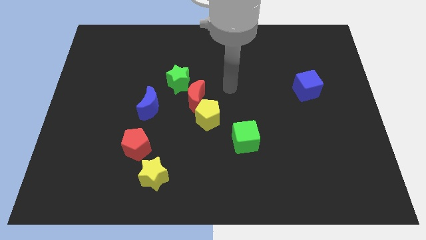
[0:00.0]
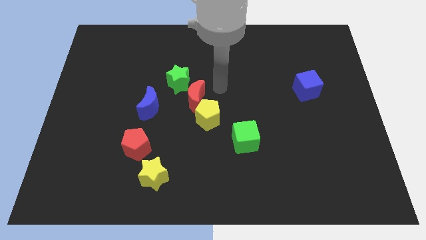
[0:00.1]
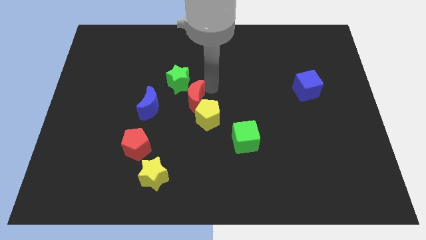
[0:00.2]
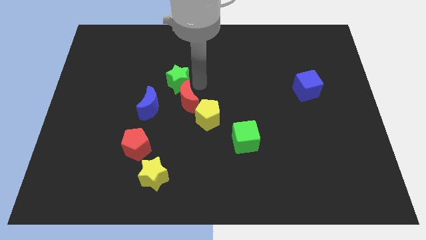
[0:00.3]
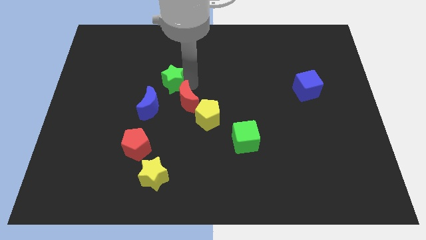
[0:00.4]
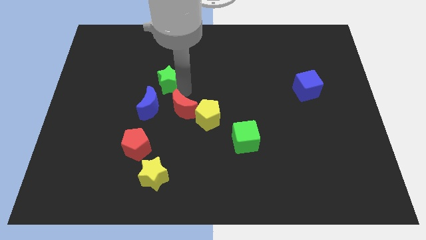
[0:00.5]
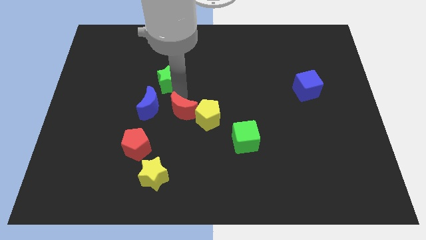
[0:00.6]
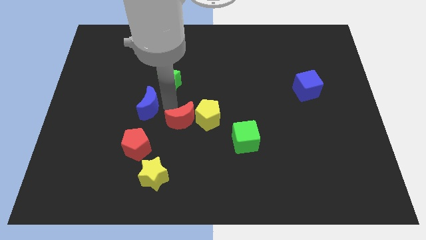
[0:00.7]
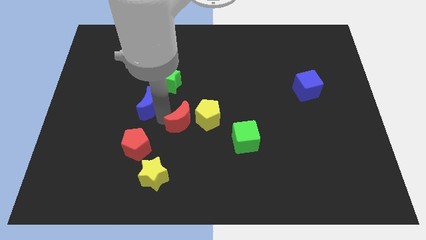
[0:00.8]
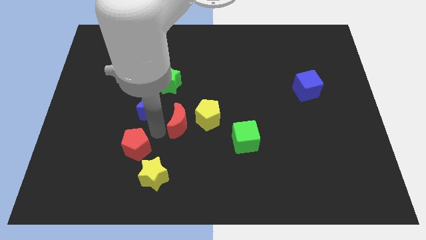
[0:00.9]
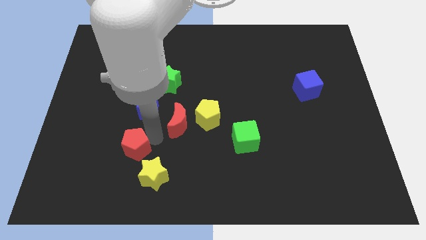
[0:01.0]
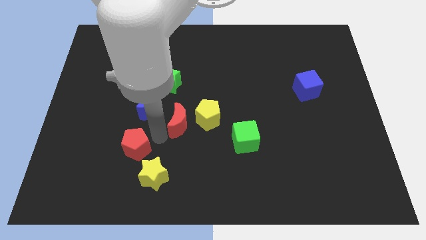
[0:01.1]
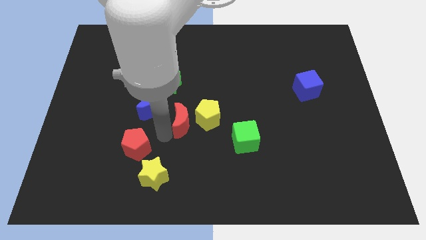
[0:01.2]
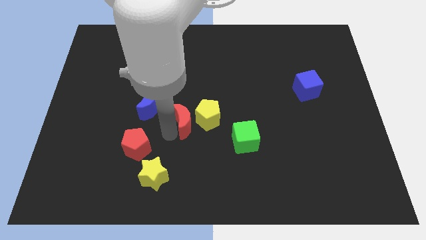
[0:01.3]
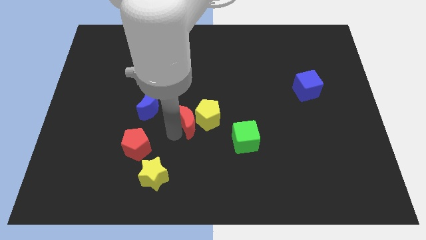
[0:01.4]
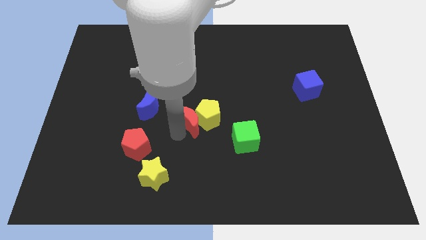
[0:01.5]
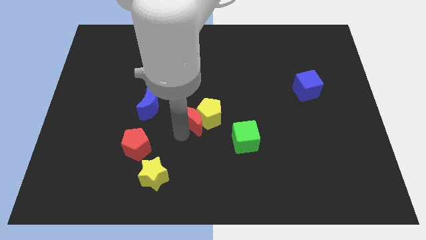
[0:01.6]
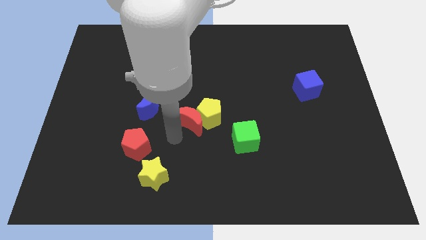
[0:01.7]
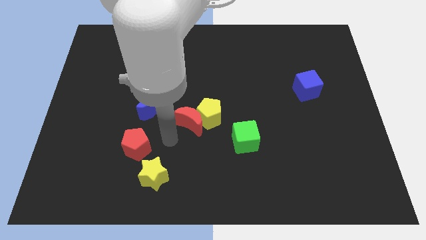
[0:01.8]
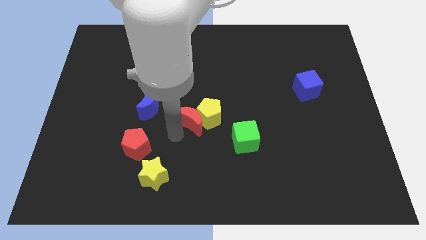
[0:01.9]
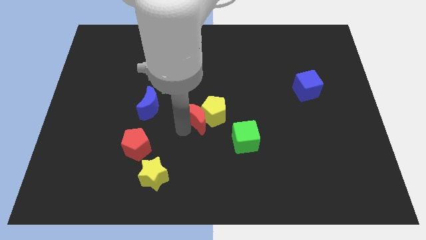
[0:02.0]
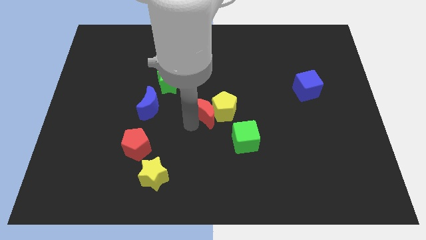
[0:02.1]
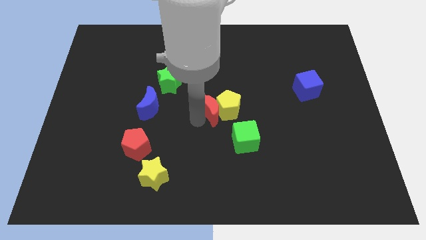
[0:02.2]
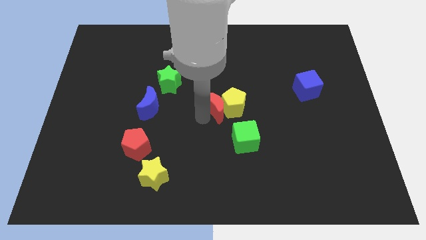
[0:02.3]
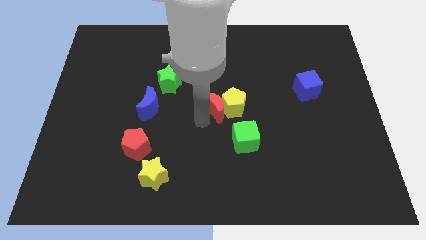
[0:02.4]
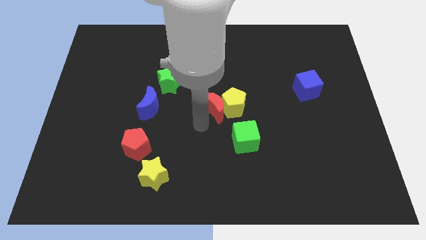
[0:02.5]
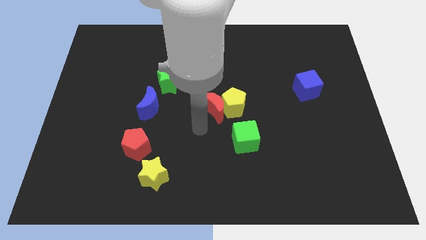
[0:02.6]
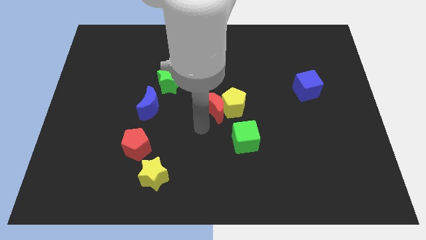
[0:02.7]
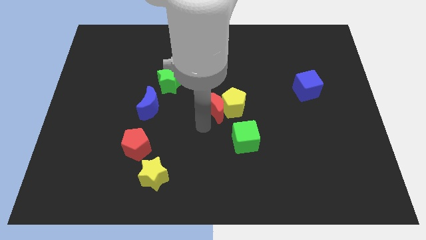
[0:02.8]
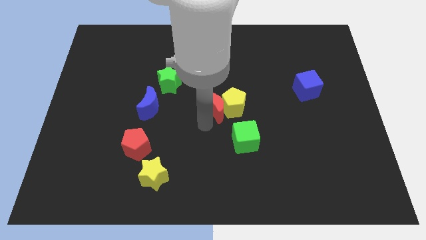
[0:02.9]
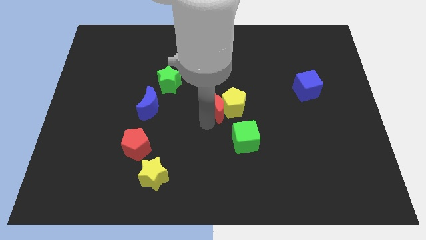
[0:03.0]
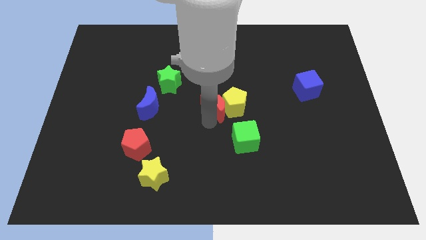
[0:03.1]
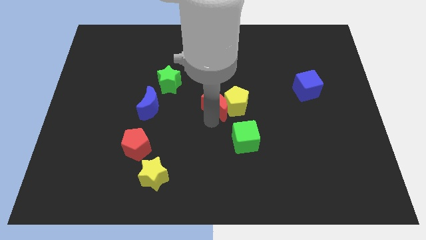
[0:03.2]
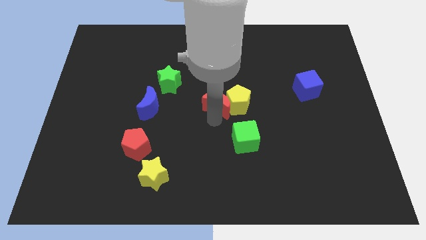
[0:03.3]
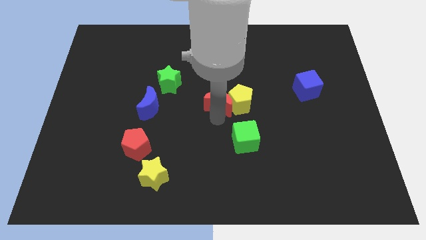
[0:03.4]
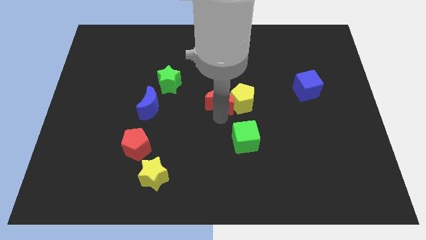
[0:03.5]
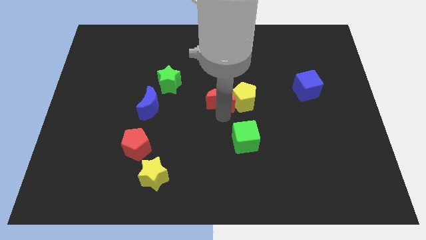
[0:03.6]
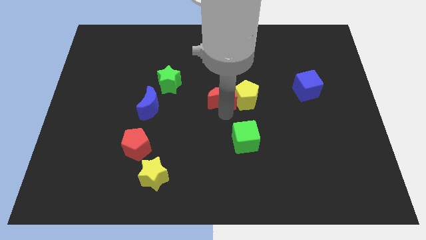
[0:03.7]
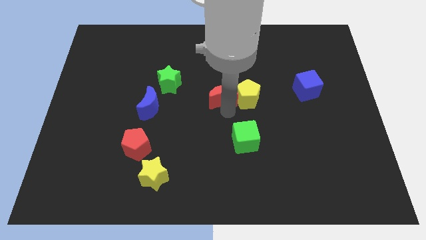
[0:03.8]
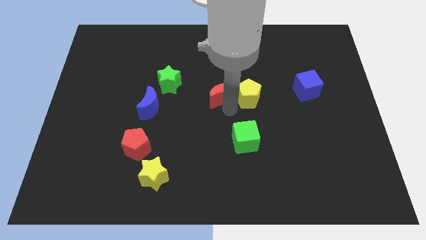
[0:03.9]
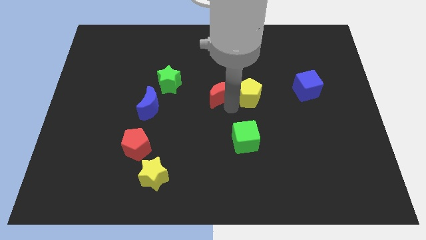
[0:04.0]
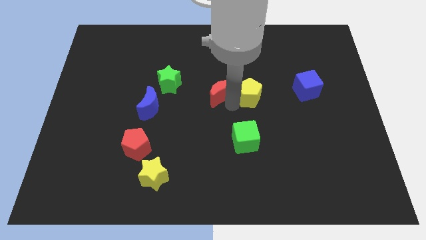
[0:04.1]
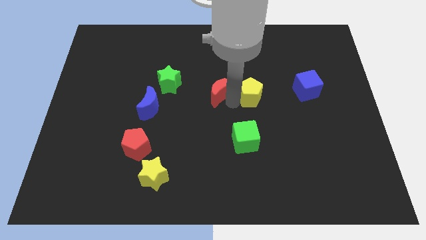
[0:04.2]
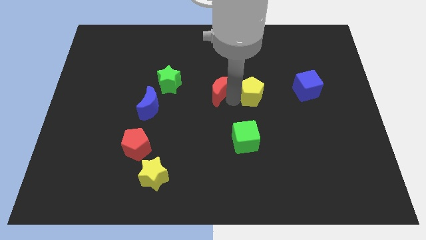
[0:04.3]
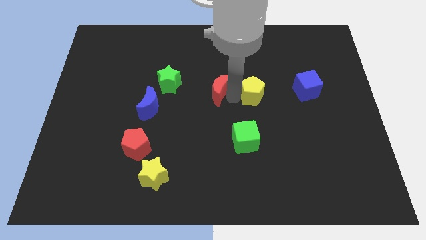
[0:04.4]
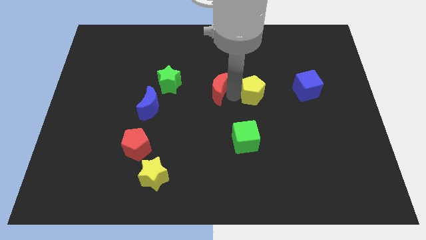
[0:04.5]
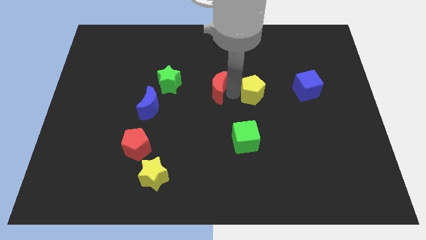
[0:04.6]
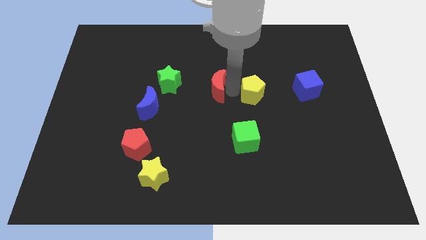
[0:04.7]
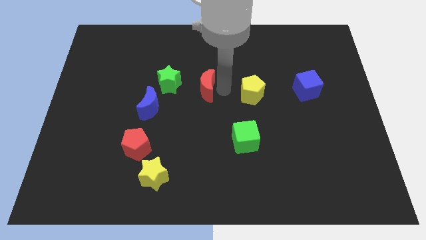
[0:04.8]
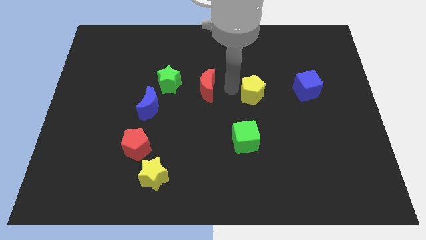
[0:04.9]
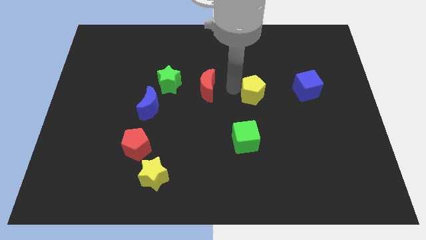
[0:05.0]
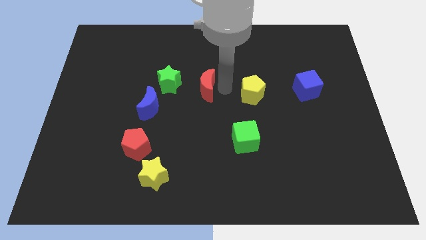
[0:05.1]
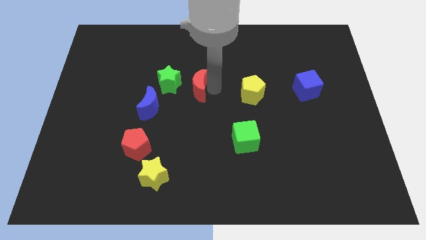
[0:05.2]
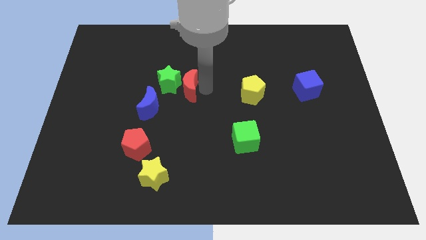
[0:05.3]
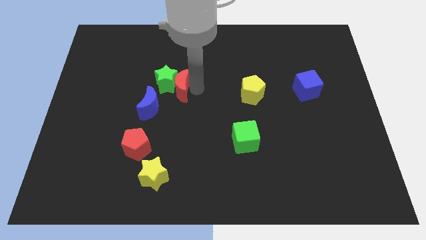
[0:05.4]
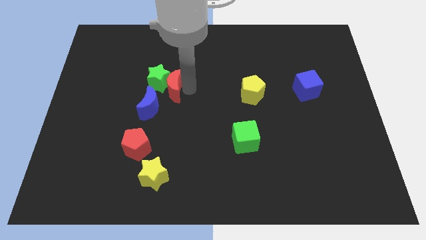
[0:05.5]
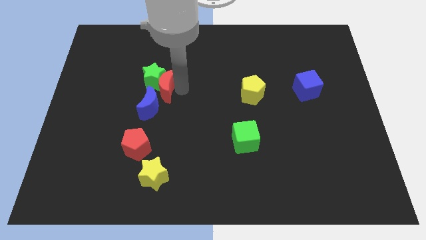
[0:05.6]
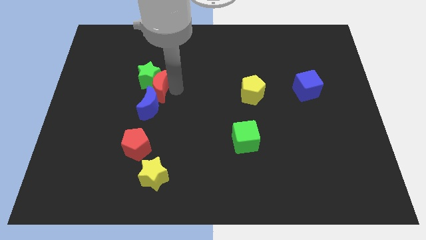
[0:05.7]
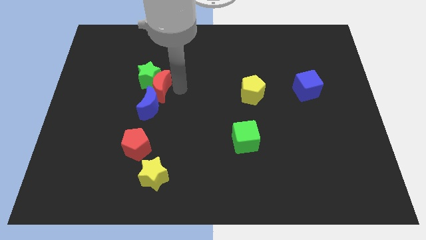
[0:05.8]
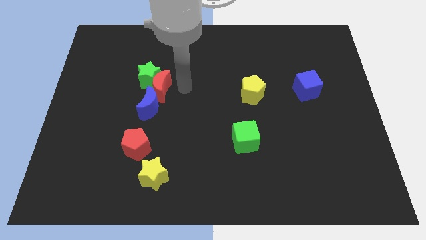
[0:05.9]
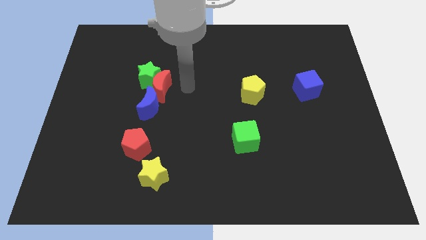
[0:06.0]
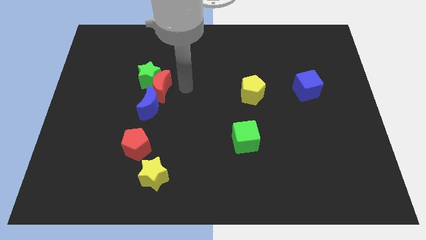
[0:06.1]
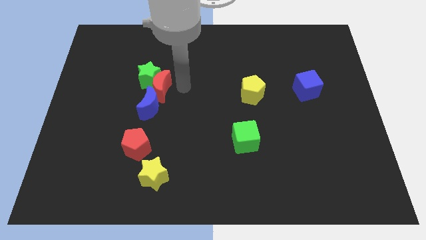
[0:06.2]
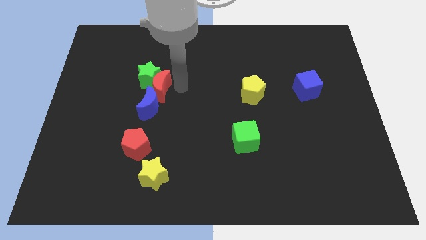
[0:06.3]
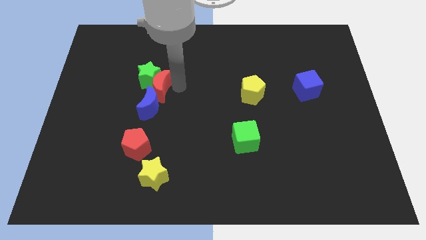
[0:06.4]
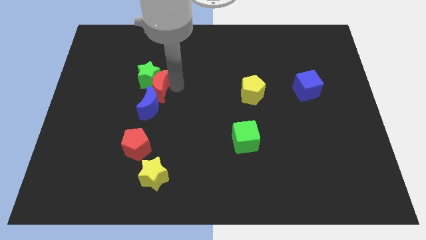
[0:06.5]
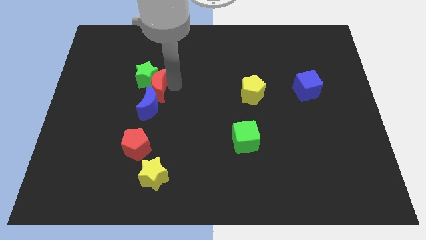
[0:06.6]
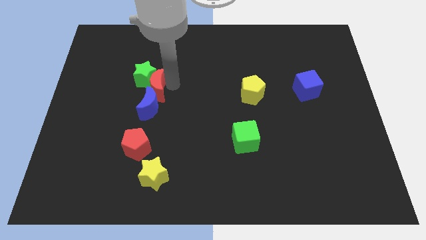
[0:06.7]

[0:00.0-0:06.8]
pull the red moon apart from the yellow pentagon and green star

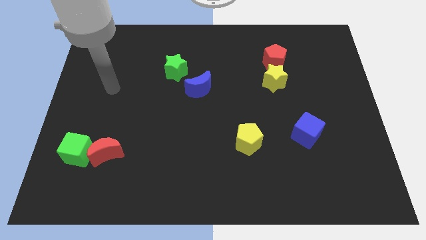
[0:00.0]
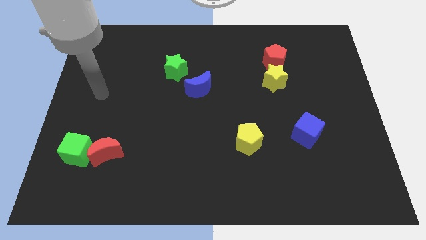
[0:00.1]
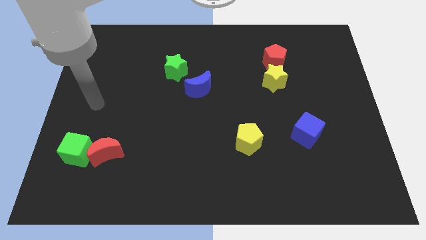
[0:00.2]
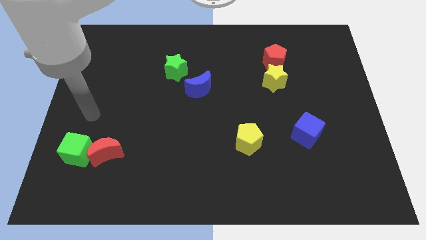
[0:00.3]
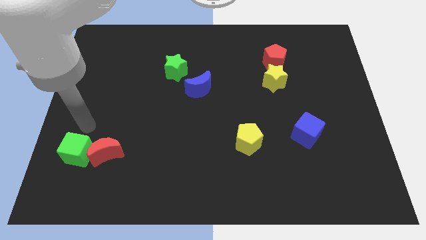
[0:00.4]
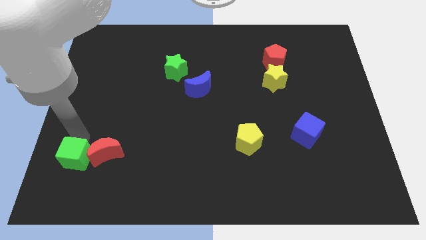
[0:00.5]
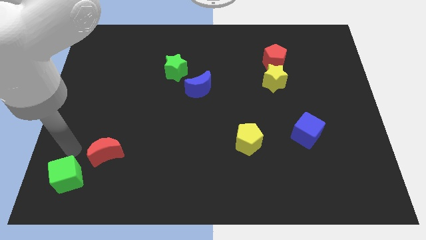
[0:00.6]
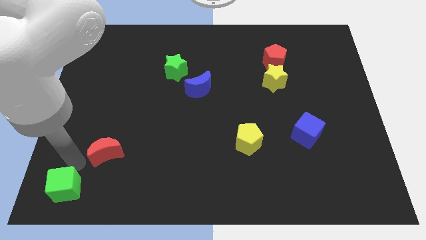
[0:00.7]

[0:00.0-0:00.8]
move the red moon away from the green cube

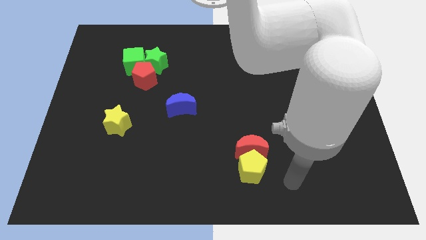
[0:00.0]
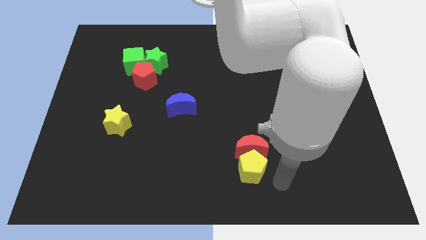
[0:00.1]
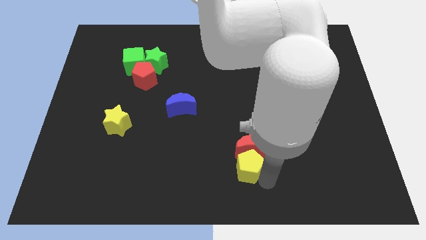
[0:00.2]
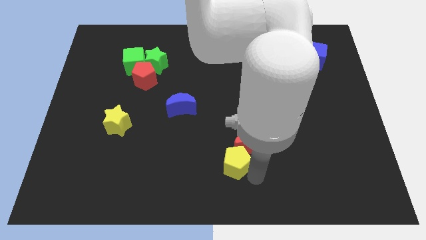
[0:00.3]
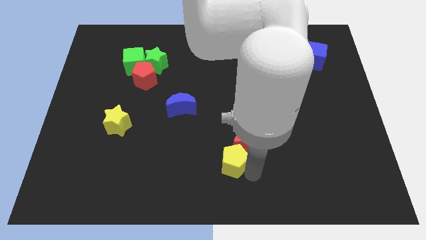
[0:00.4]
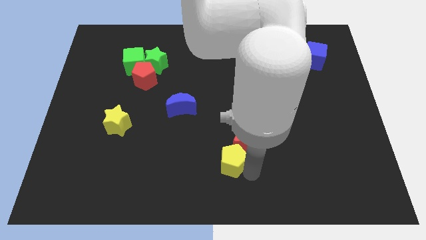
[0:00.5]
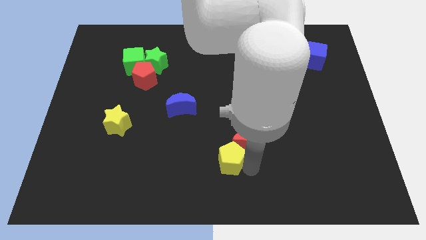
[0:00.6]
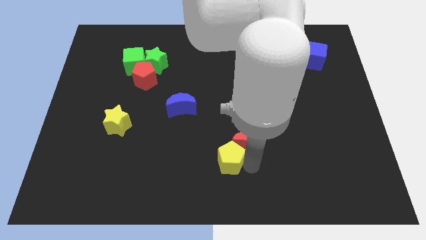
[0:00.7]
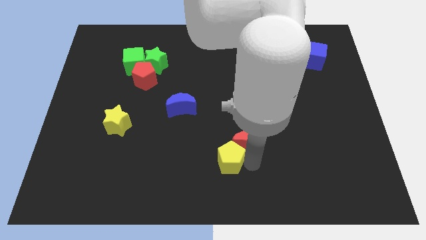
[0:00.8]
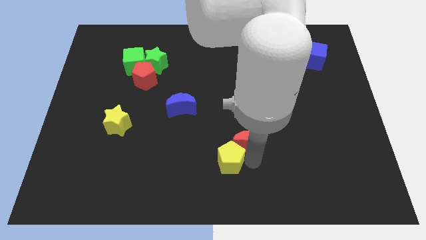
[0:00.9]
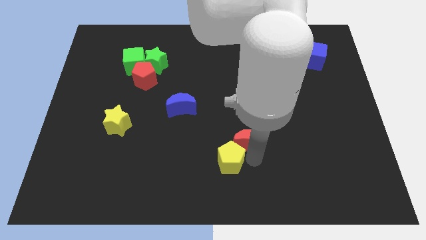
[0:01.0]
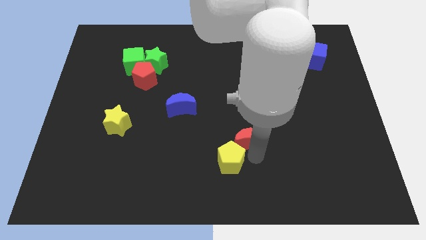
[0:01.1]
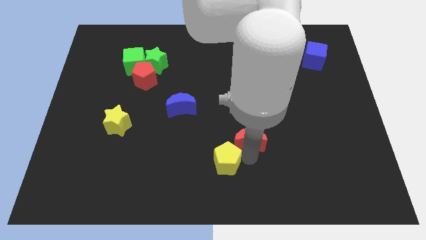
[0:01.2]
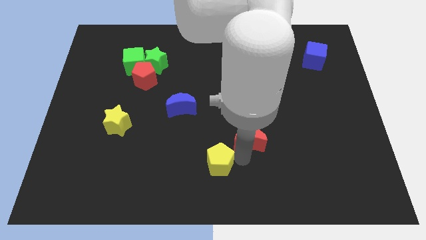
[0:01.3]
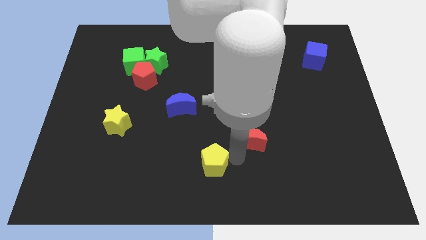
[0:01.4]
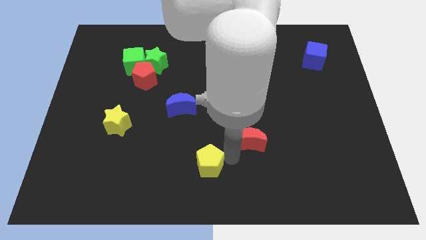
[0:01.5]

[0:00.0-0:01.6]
move the red moon away from the yellow pentagon

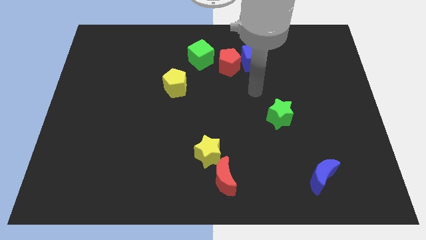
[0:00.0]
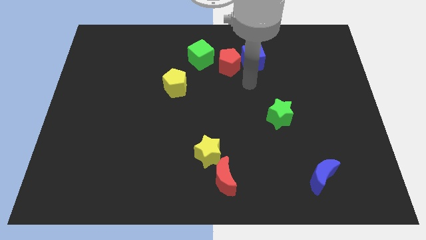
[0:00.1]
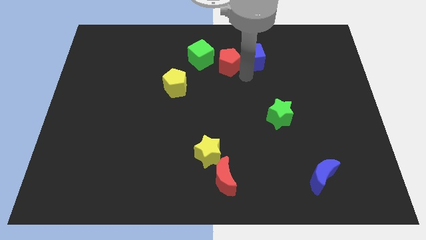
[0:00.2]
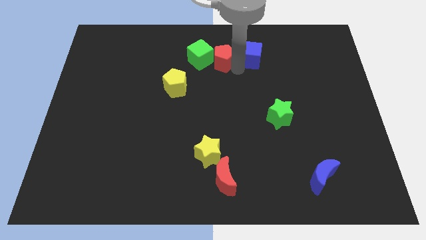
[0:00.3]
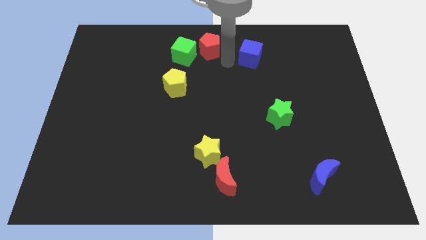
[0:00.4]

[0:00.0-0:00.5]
move the blue cube away from the red pentagon
